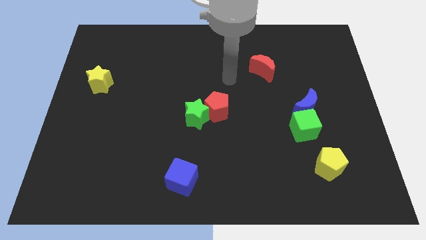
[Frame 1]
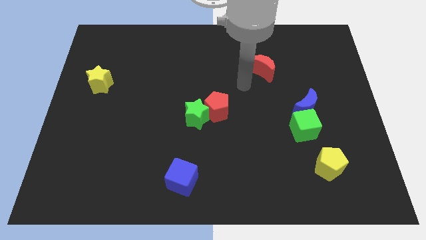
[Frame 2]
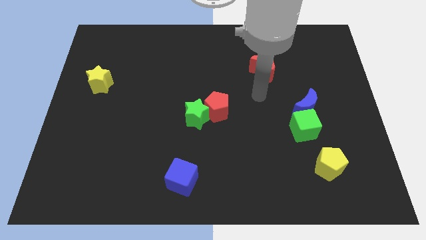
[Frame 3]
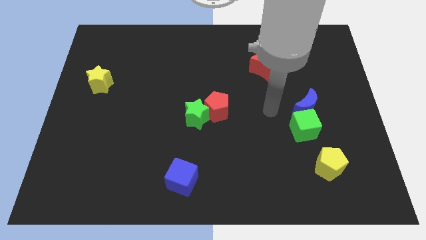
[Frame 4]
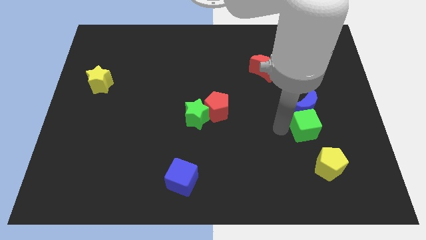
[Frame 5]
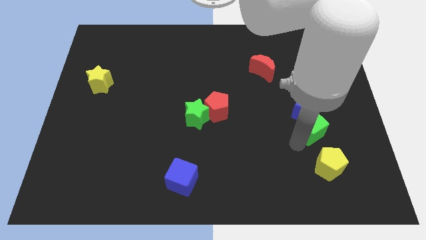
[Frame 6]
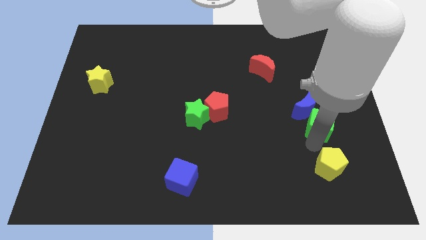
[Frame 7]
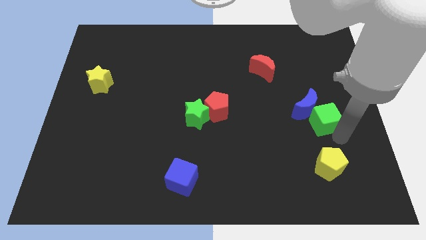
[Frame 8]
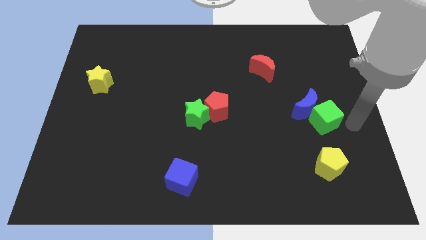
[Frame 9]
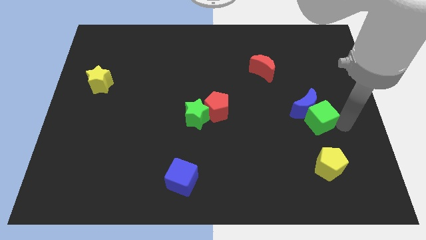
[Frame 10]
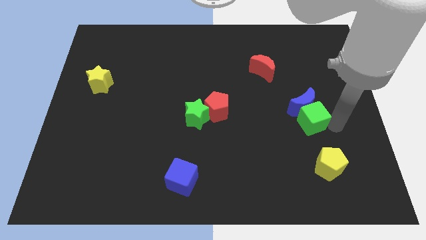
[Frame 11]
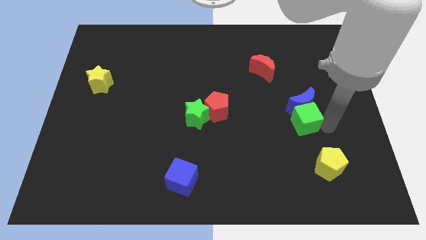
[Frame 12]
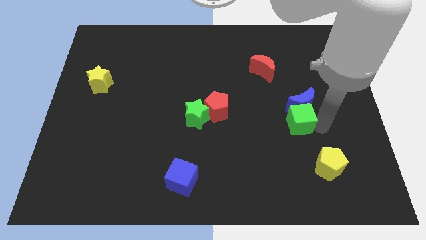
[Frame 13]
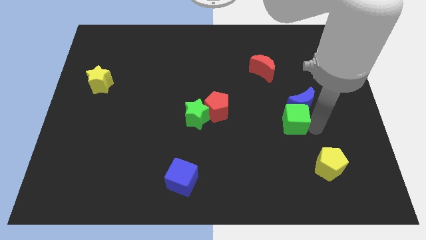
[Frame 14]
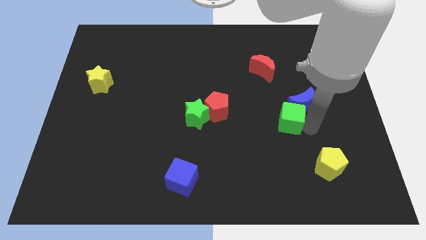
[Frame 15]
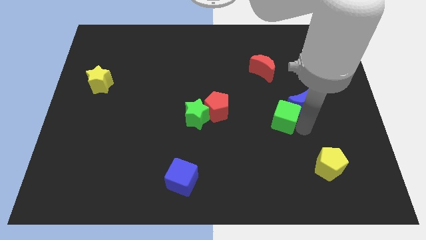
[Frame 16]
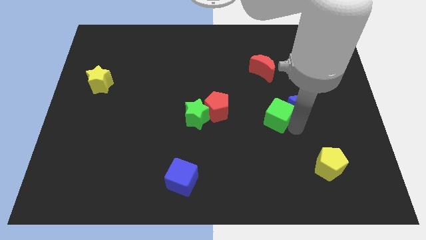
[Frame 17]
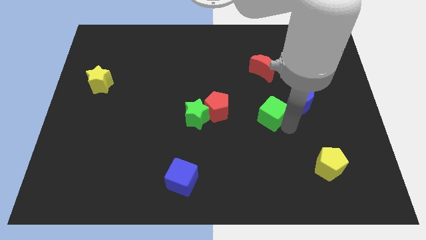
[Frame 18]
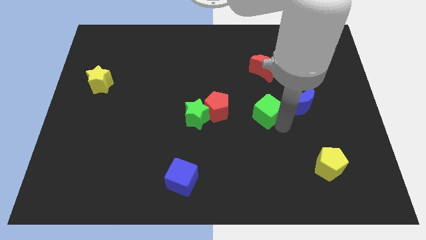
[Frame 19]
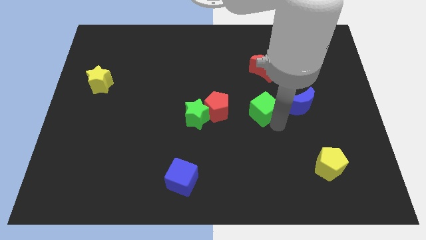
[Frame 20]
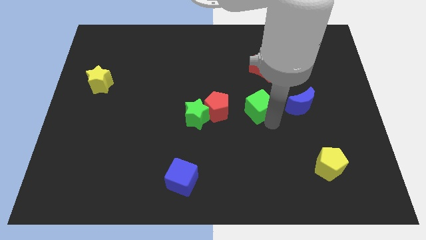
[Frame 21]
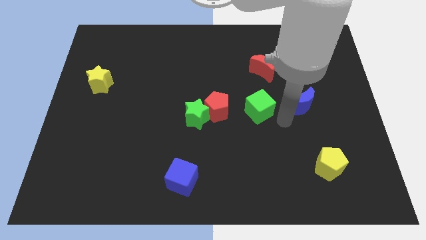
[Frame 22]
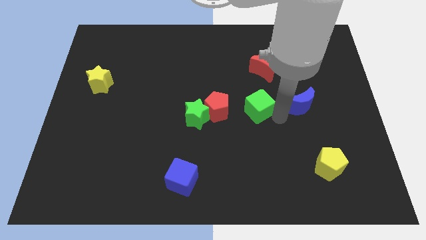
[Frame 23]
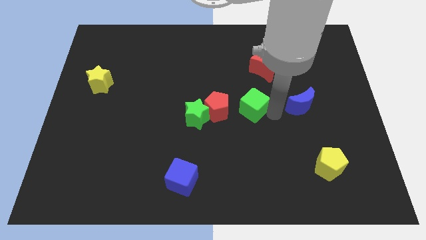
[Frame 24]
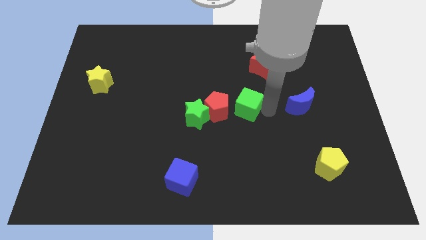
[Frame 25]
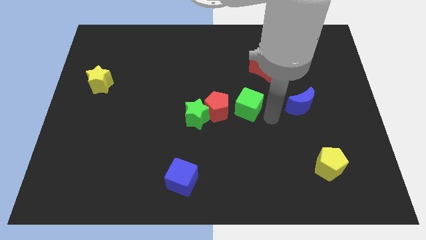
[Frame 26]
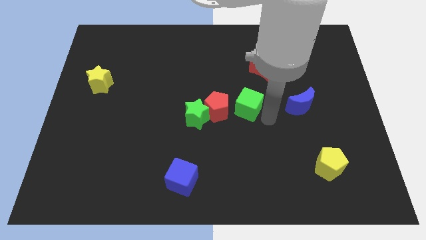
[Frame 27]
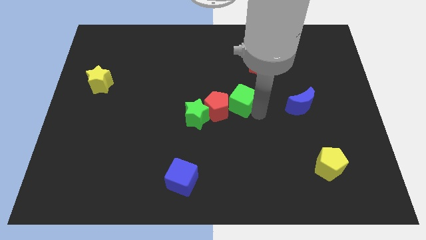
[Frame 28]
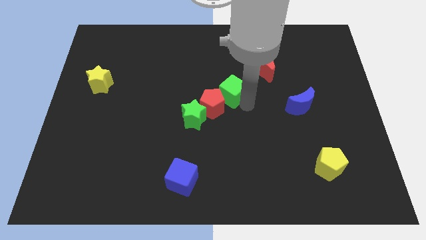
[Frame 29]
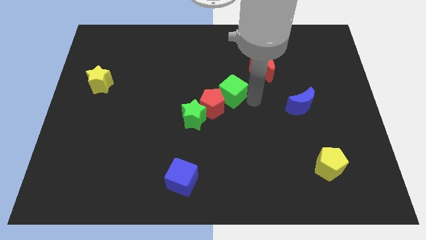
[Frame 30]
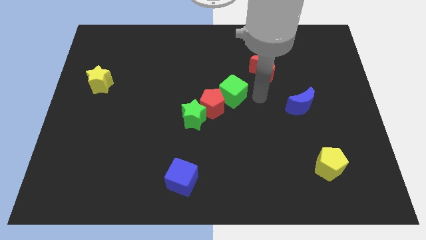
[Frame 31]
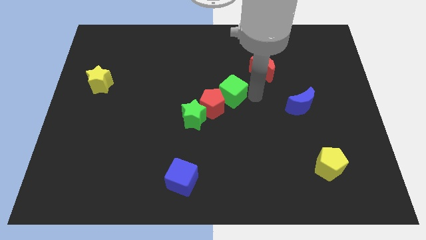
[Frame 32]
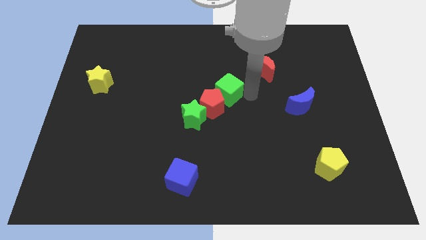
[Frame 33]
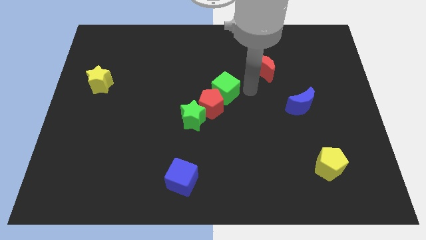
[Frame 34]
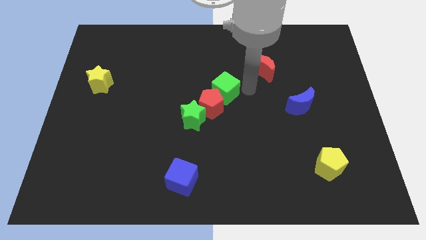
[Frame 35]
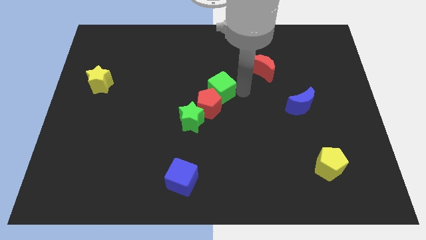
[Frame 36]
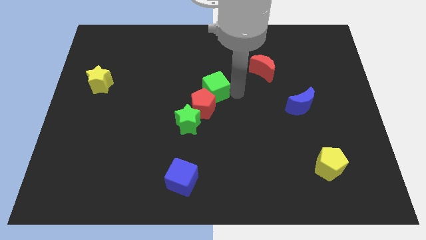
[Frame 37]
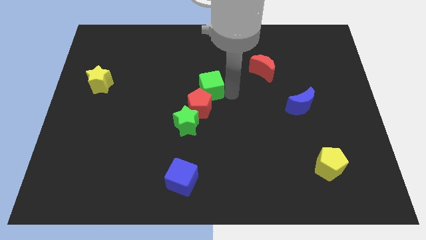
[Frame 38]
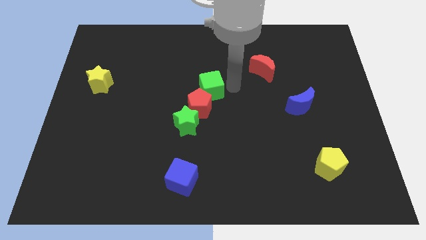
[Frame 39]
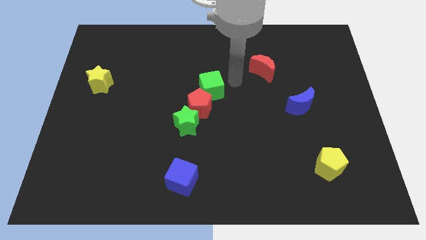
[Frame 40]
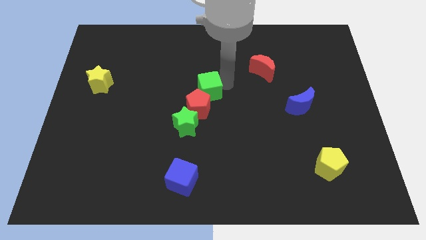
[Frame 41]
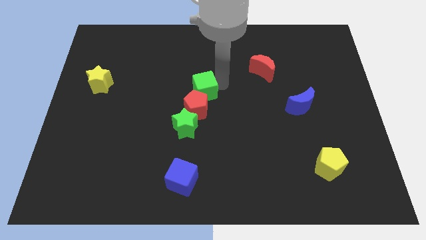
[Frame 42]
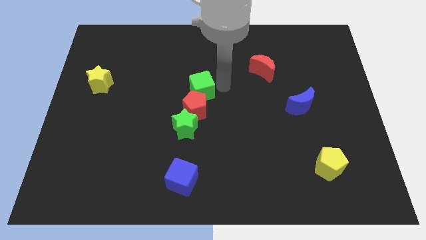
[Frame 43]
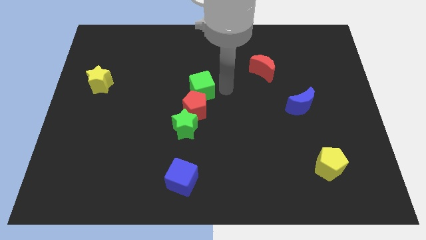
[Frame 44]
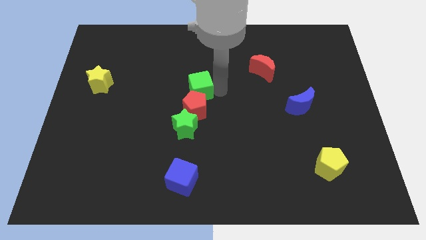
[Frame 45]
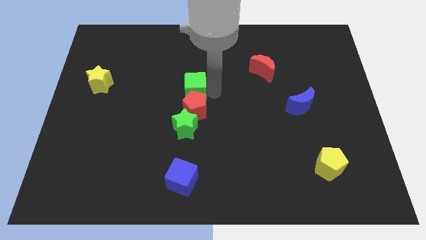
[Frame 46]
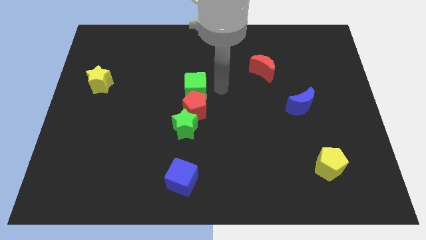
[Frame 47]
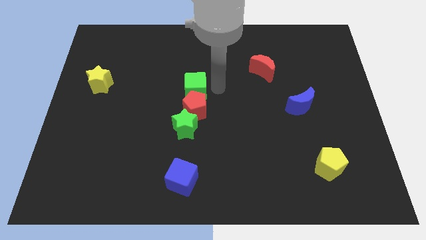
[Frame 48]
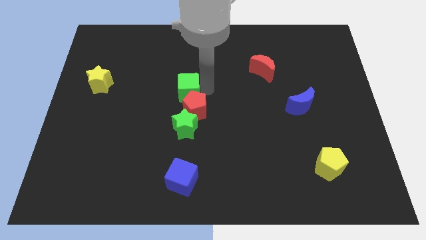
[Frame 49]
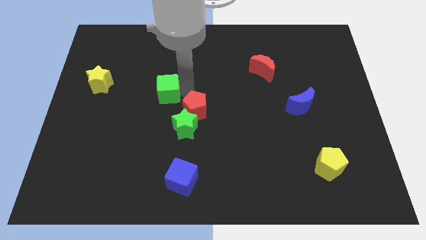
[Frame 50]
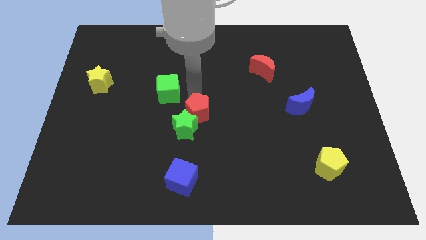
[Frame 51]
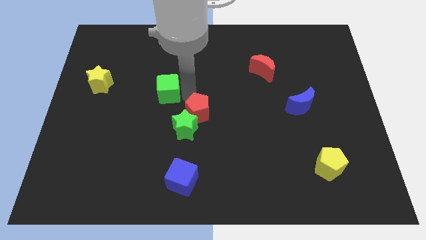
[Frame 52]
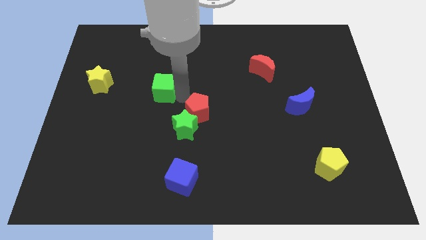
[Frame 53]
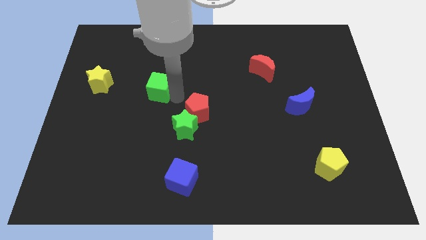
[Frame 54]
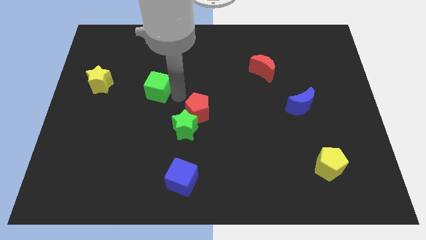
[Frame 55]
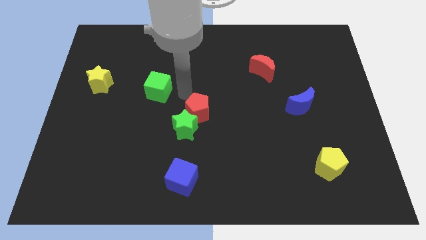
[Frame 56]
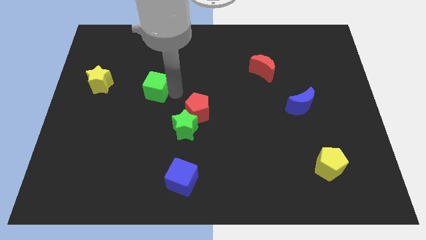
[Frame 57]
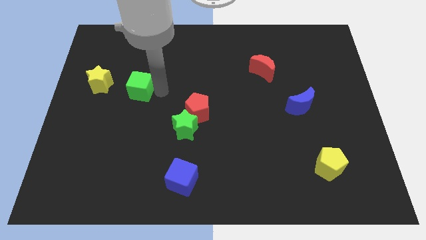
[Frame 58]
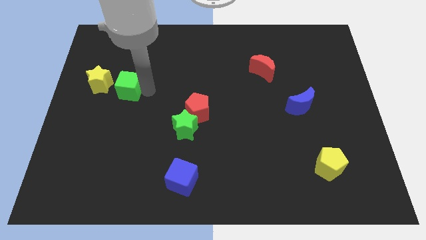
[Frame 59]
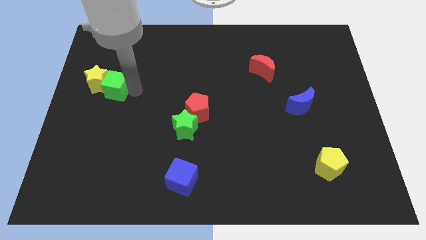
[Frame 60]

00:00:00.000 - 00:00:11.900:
push the green cube next to the yellow star

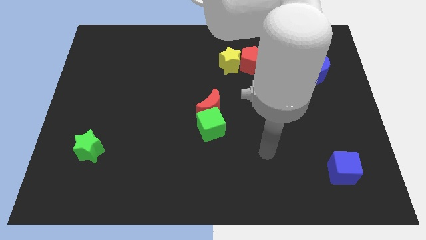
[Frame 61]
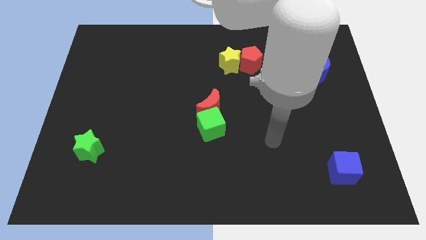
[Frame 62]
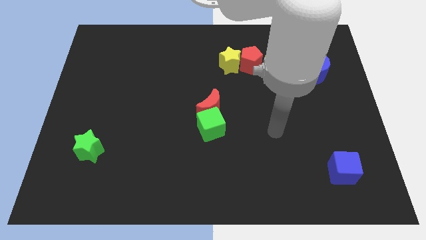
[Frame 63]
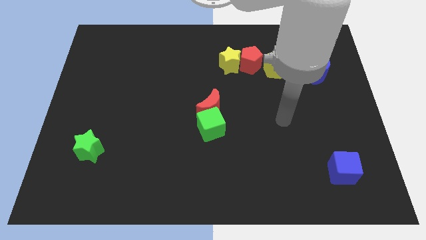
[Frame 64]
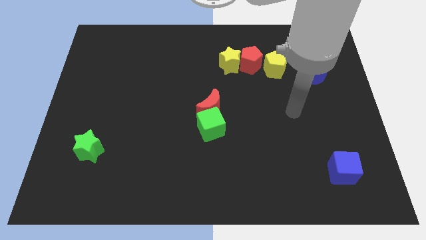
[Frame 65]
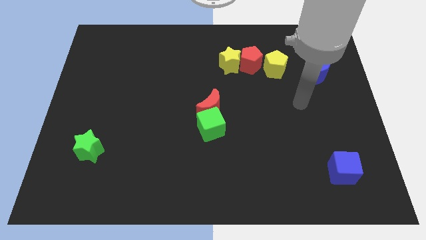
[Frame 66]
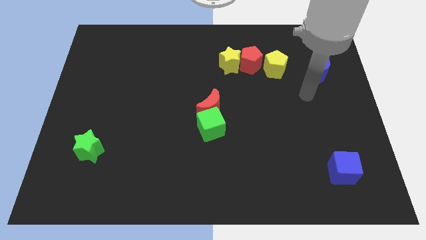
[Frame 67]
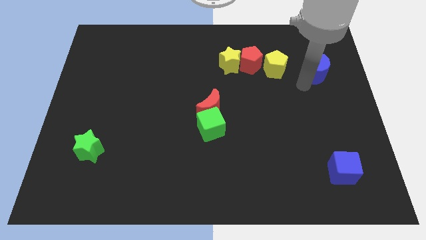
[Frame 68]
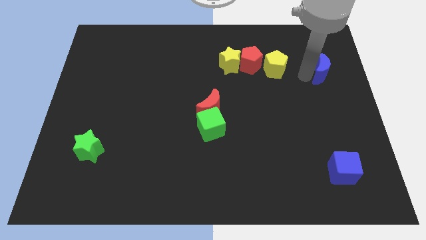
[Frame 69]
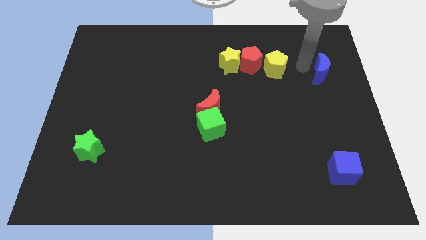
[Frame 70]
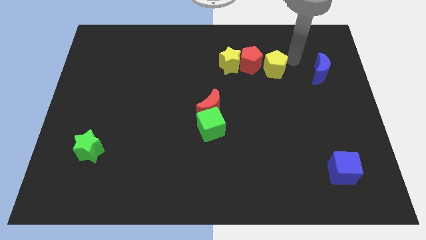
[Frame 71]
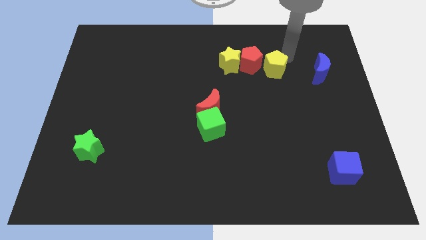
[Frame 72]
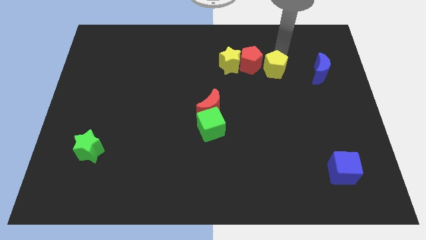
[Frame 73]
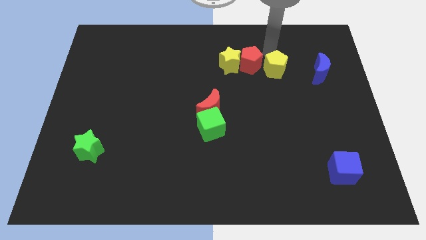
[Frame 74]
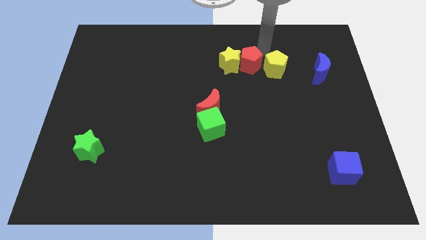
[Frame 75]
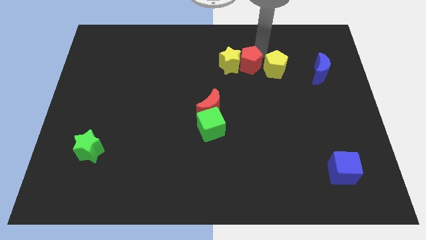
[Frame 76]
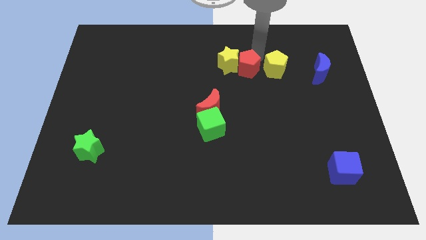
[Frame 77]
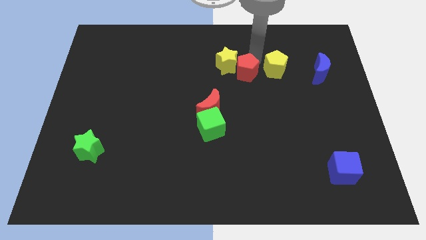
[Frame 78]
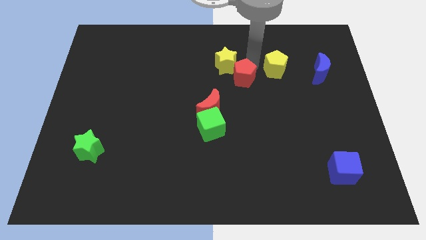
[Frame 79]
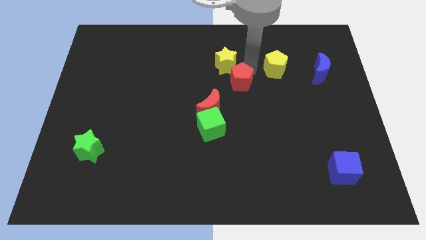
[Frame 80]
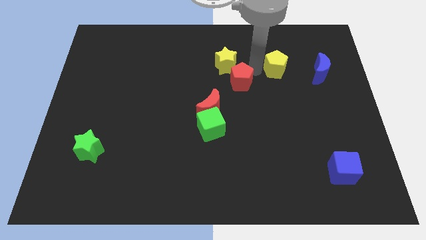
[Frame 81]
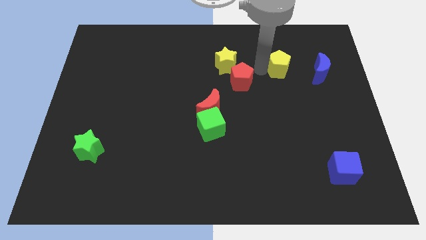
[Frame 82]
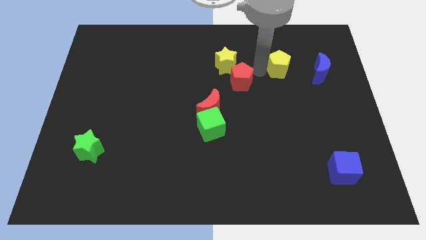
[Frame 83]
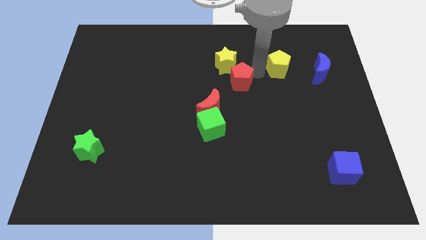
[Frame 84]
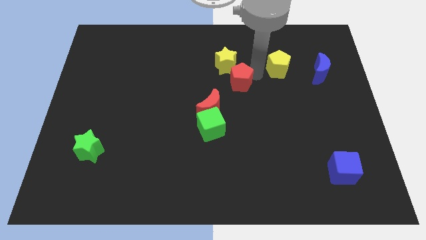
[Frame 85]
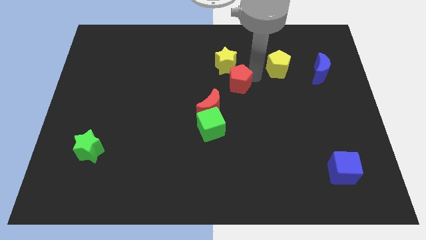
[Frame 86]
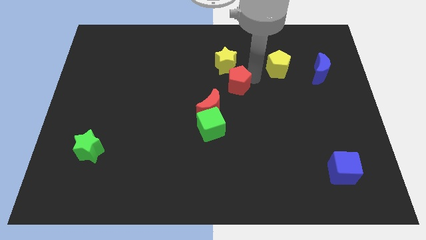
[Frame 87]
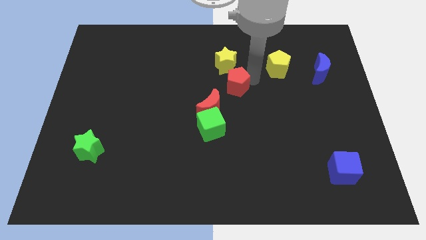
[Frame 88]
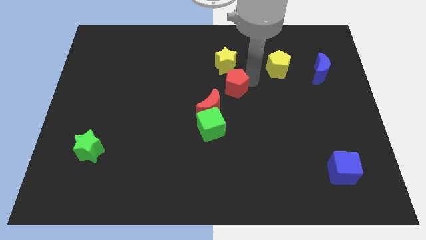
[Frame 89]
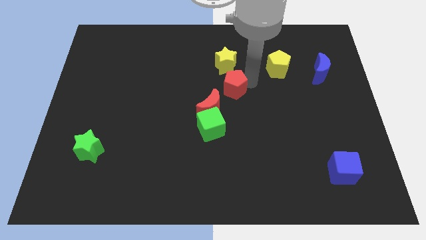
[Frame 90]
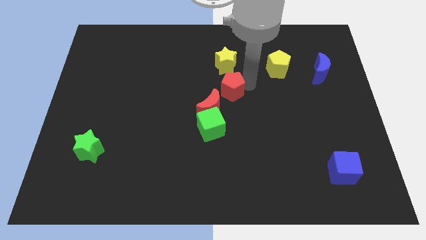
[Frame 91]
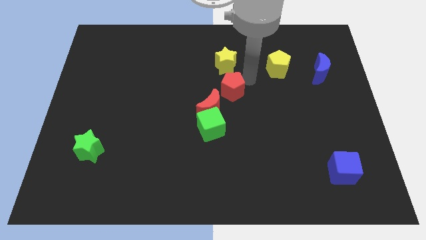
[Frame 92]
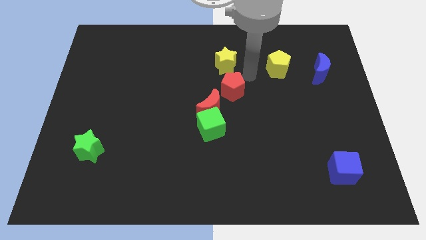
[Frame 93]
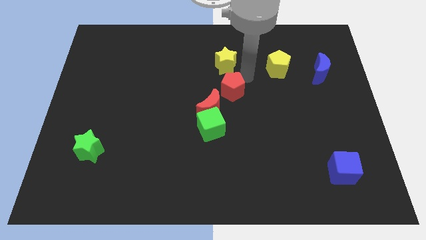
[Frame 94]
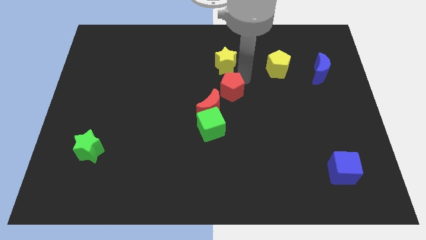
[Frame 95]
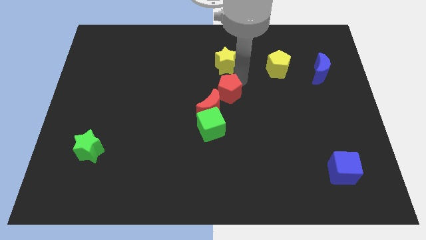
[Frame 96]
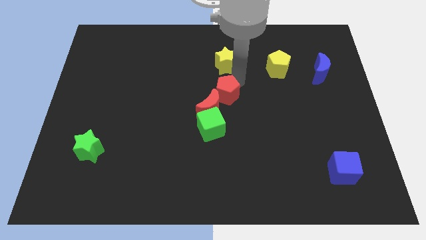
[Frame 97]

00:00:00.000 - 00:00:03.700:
put the red pentagon next to the red moon
